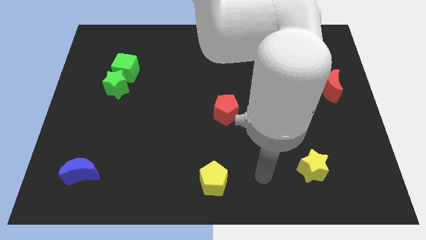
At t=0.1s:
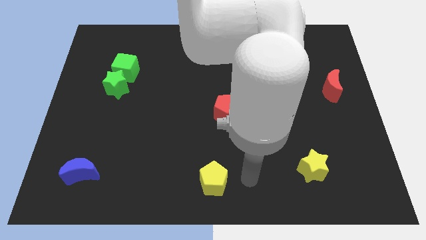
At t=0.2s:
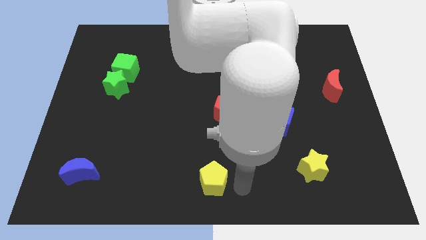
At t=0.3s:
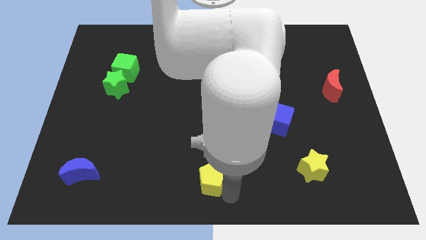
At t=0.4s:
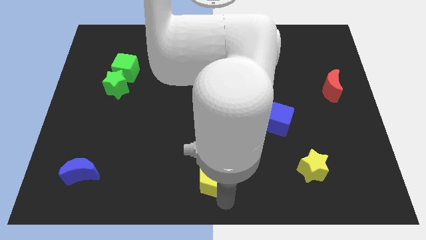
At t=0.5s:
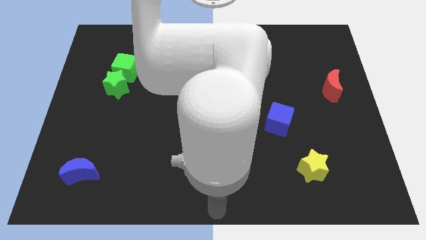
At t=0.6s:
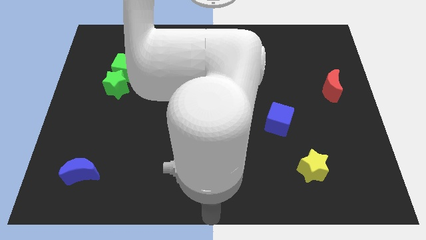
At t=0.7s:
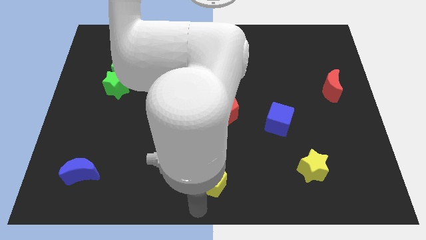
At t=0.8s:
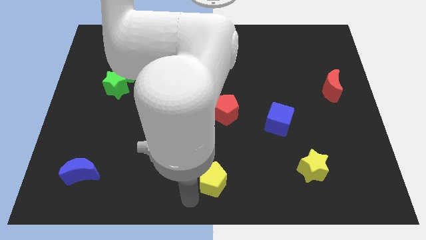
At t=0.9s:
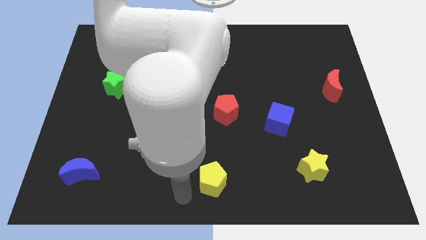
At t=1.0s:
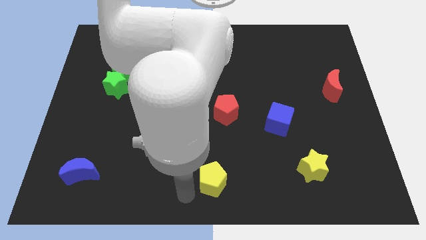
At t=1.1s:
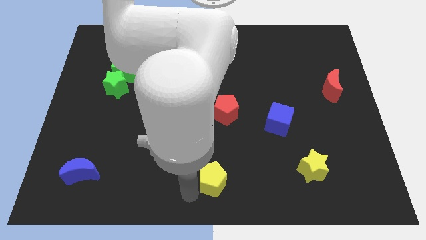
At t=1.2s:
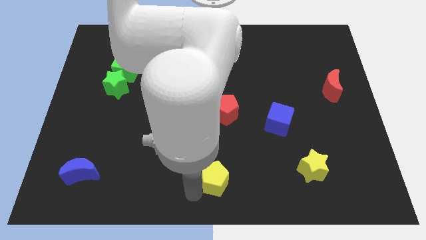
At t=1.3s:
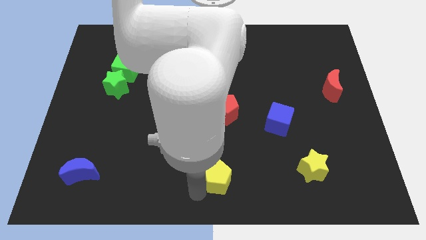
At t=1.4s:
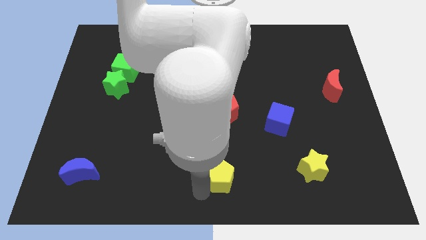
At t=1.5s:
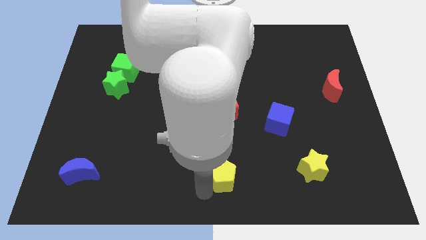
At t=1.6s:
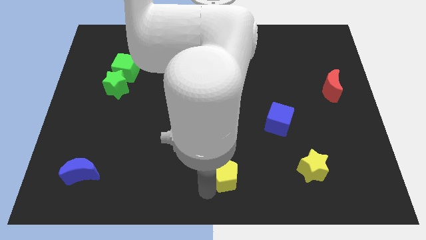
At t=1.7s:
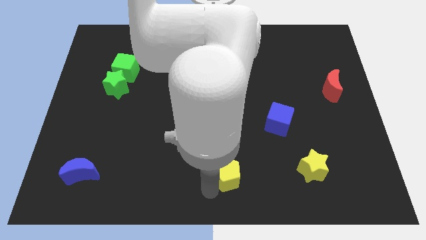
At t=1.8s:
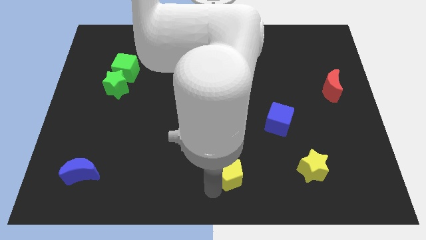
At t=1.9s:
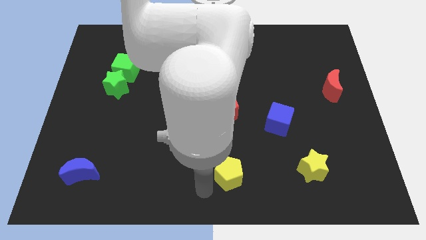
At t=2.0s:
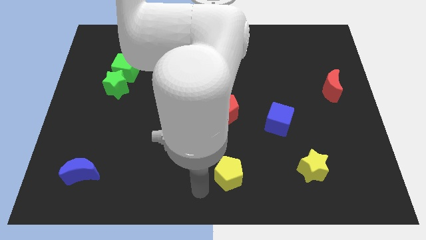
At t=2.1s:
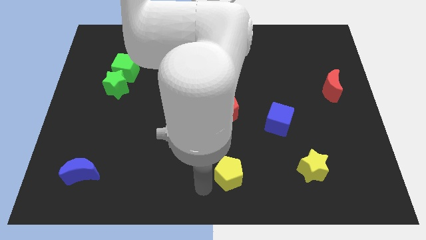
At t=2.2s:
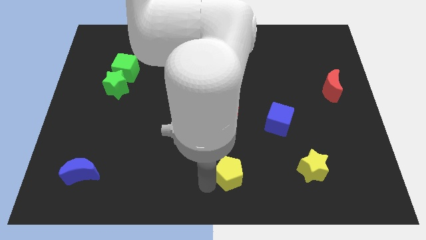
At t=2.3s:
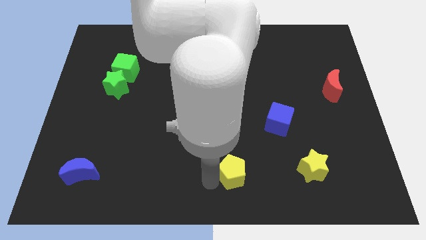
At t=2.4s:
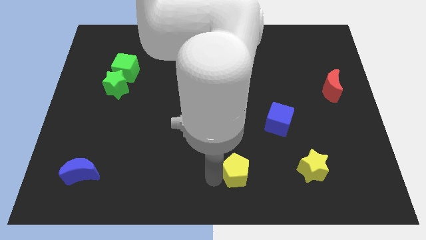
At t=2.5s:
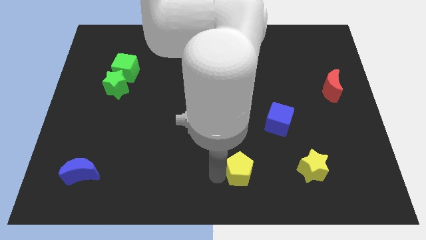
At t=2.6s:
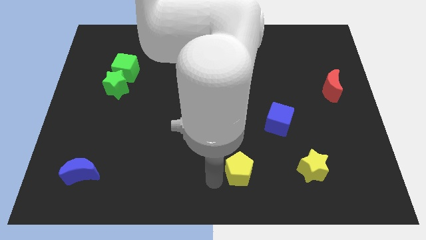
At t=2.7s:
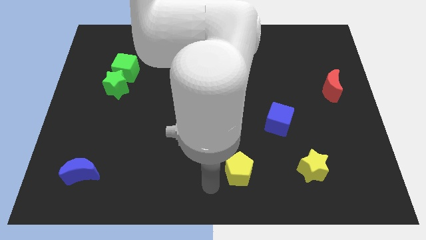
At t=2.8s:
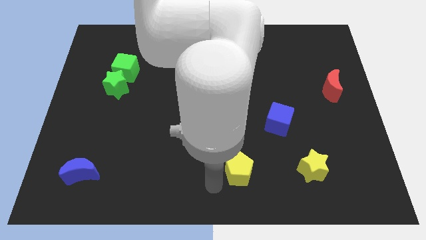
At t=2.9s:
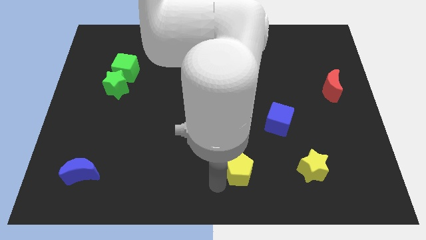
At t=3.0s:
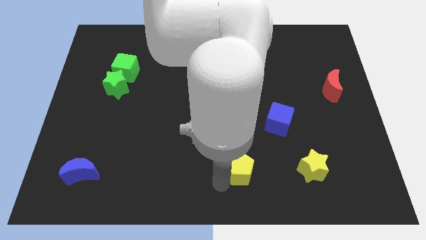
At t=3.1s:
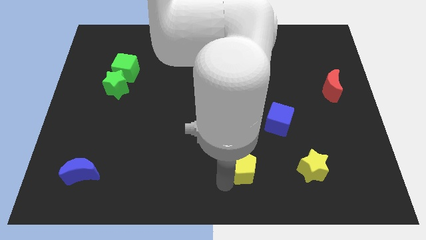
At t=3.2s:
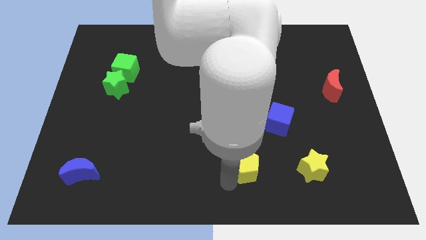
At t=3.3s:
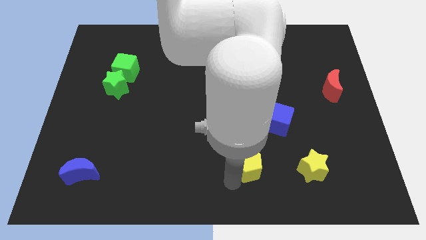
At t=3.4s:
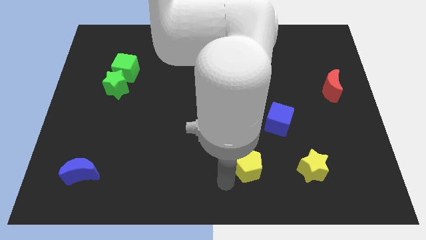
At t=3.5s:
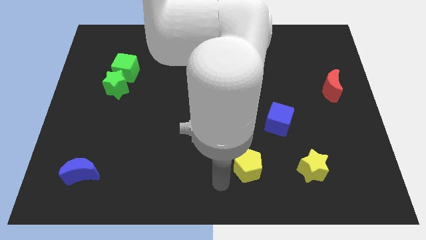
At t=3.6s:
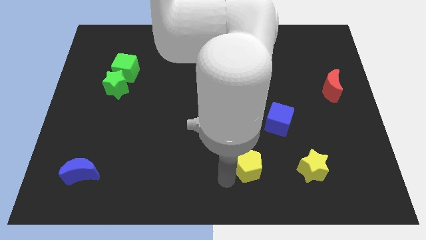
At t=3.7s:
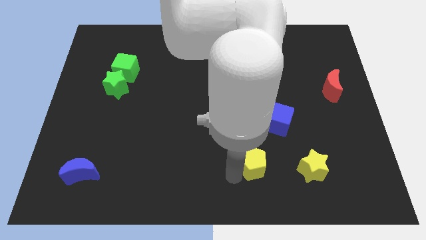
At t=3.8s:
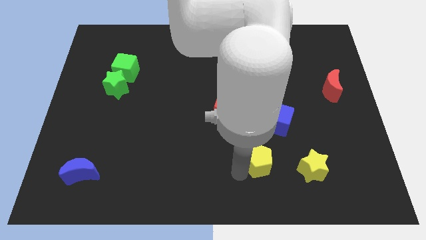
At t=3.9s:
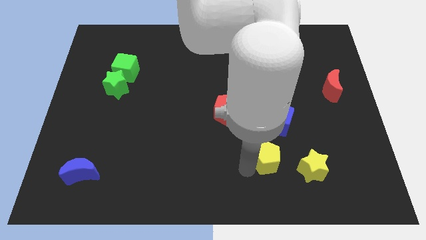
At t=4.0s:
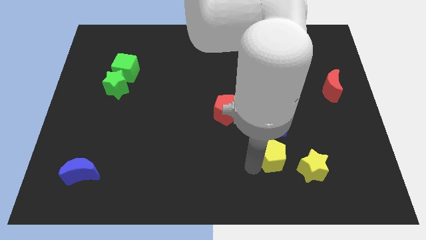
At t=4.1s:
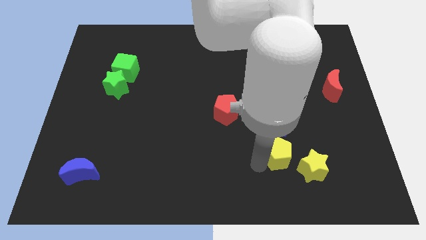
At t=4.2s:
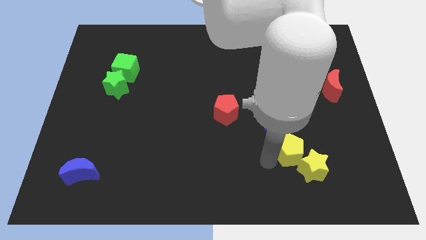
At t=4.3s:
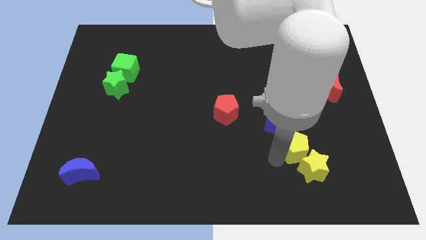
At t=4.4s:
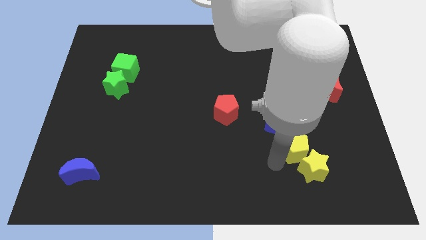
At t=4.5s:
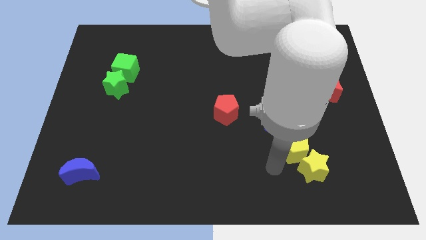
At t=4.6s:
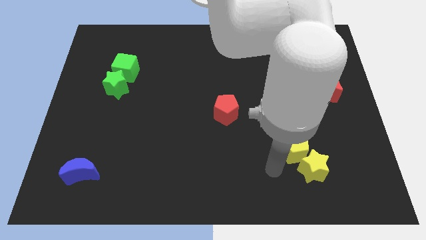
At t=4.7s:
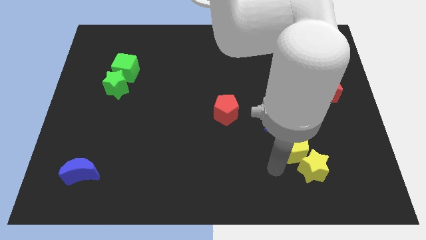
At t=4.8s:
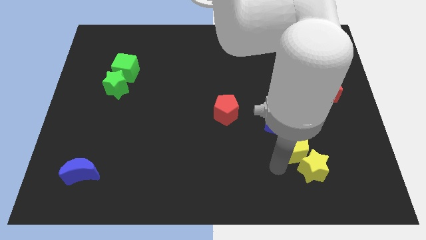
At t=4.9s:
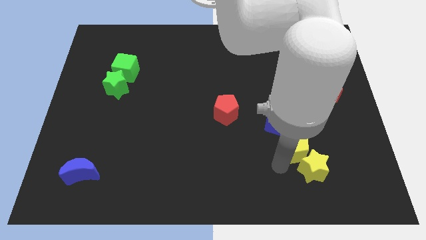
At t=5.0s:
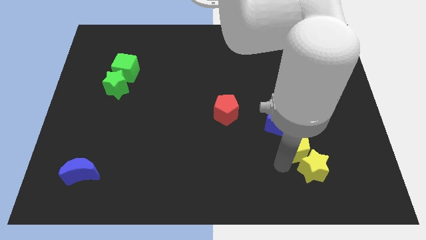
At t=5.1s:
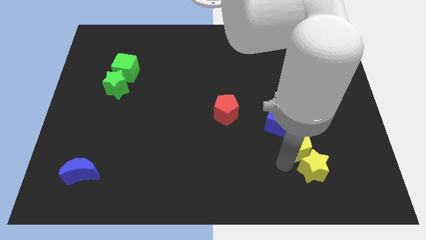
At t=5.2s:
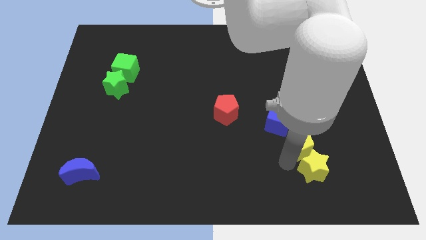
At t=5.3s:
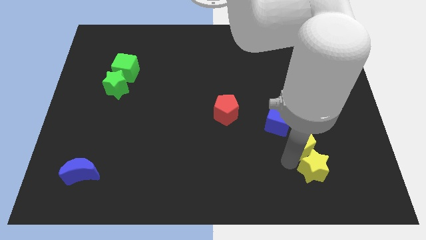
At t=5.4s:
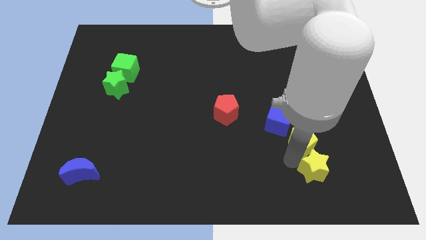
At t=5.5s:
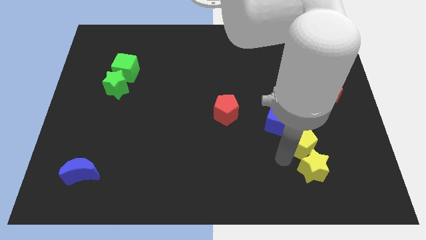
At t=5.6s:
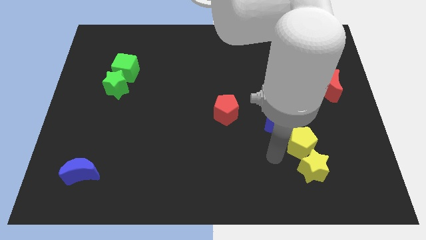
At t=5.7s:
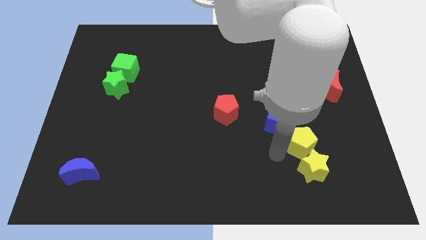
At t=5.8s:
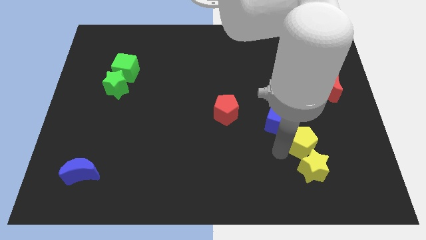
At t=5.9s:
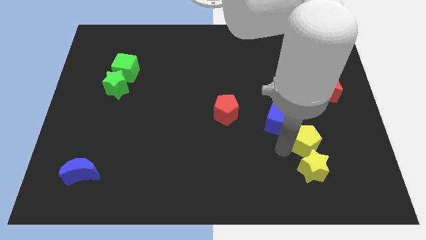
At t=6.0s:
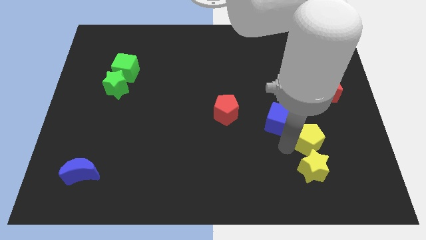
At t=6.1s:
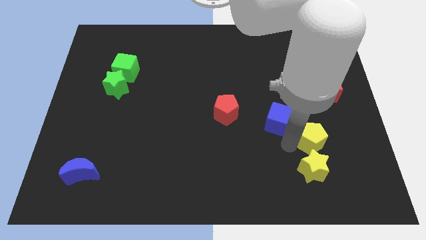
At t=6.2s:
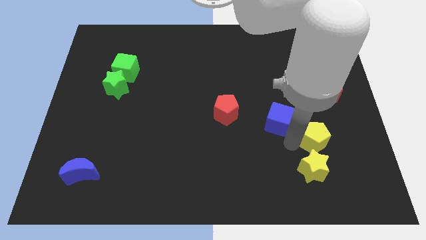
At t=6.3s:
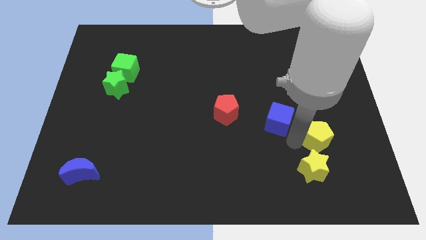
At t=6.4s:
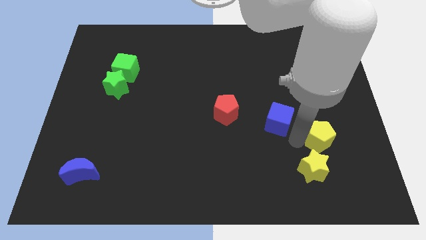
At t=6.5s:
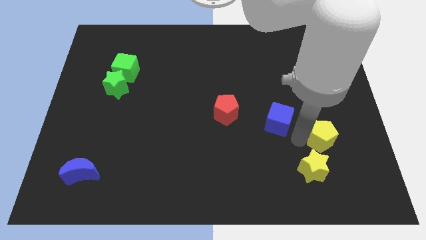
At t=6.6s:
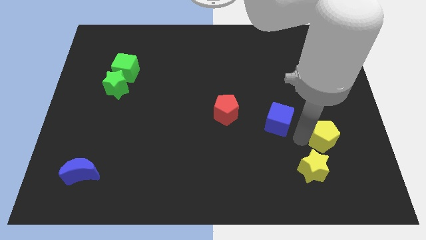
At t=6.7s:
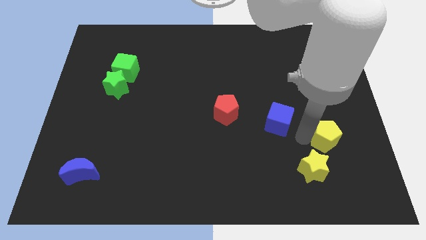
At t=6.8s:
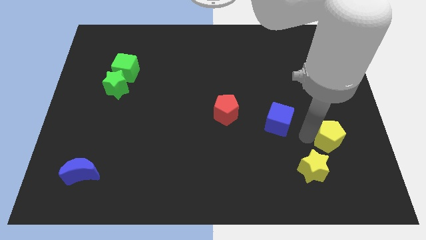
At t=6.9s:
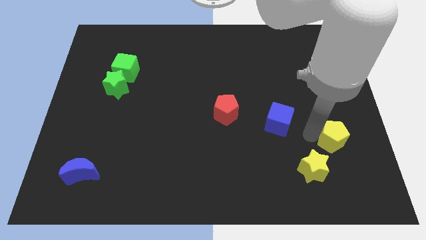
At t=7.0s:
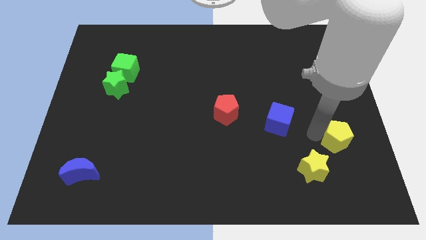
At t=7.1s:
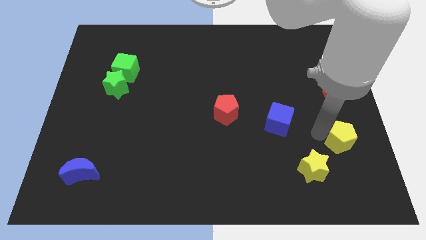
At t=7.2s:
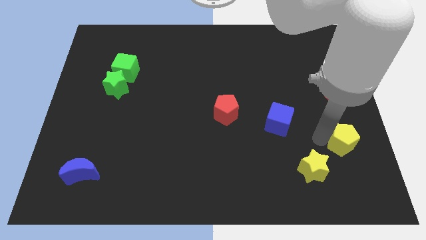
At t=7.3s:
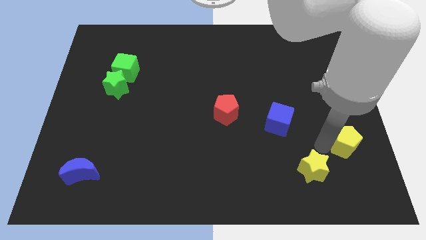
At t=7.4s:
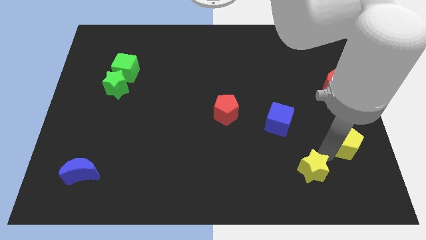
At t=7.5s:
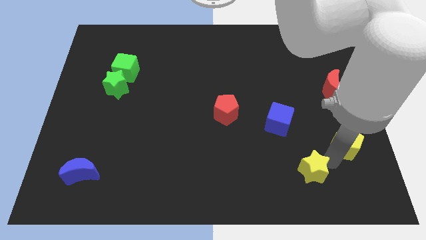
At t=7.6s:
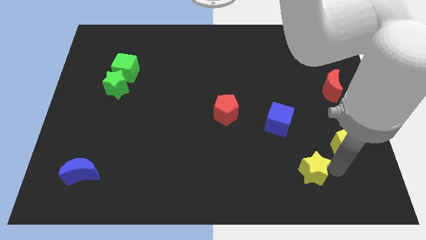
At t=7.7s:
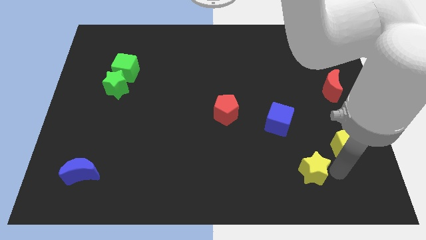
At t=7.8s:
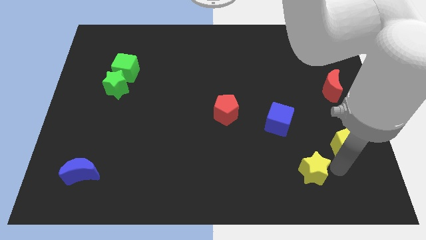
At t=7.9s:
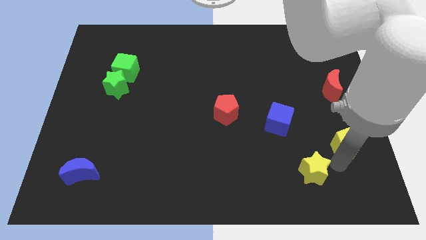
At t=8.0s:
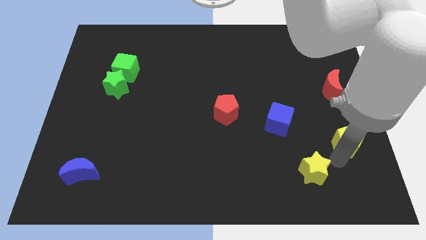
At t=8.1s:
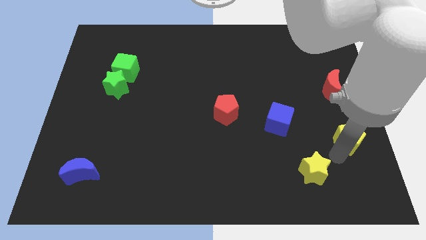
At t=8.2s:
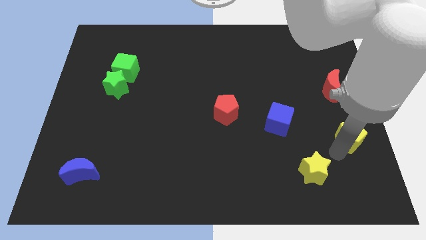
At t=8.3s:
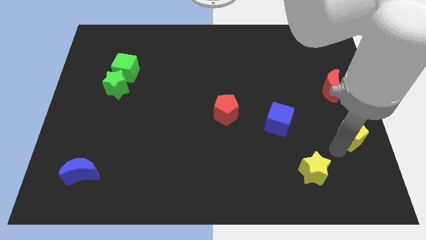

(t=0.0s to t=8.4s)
slide the yellow pentagon to the right side of the board
